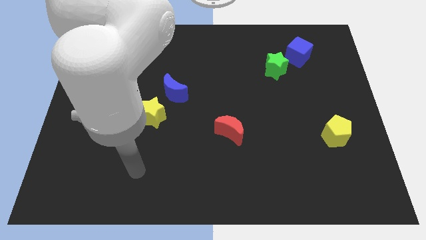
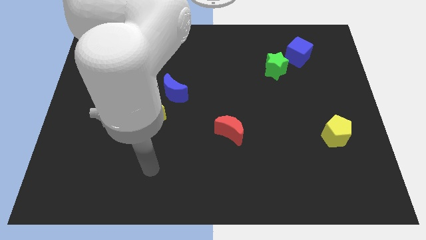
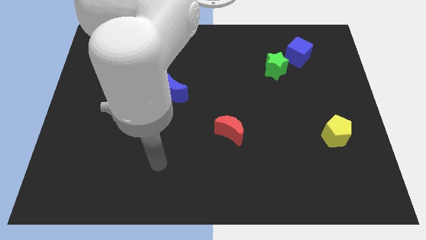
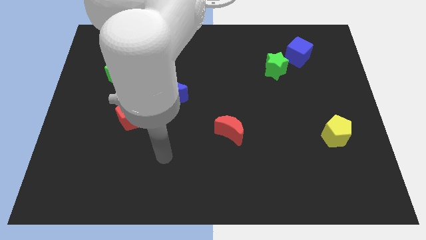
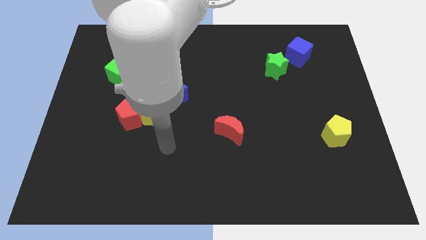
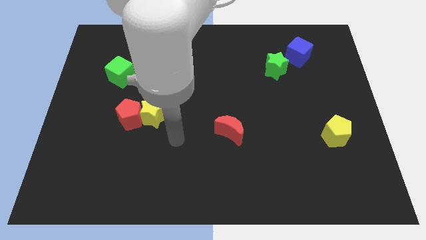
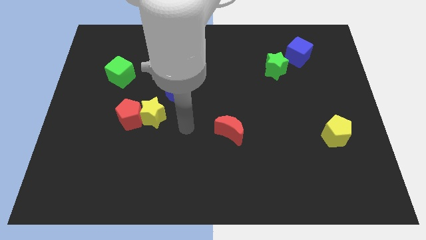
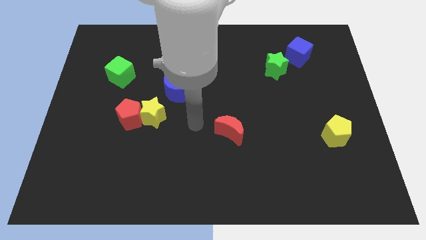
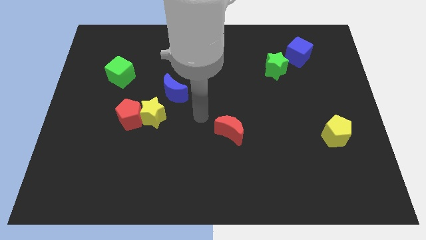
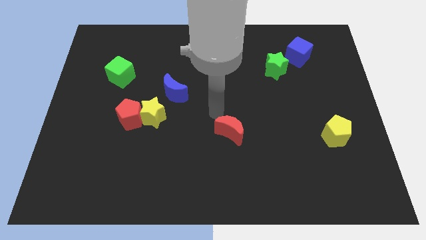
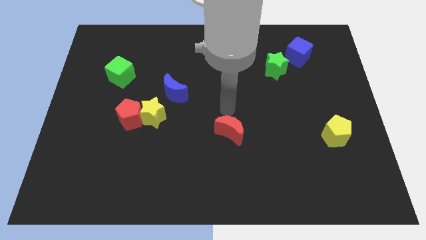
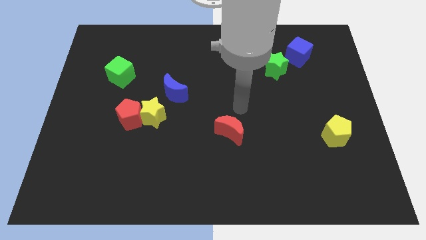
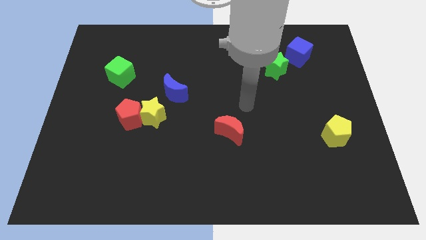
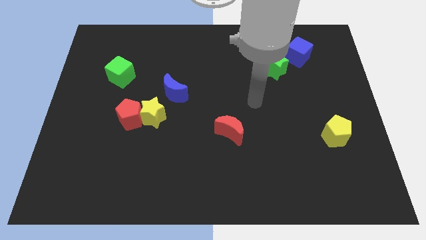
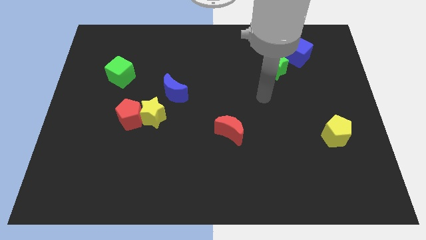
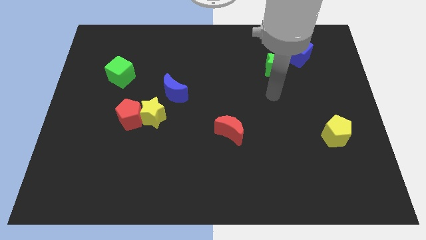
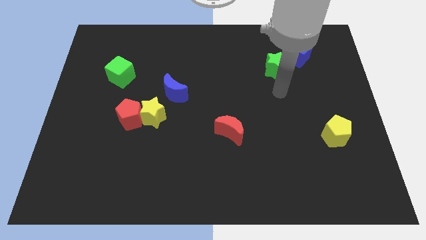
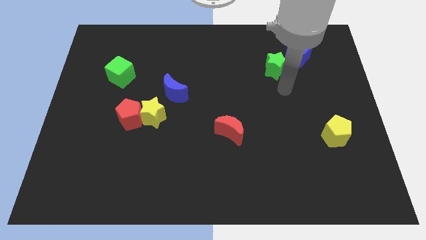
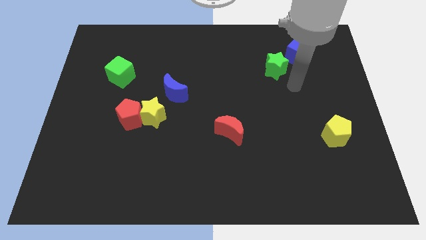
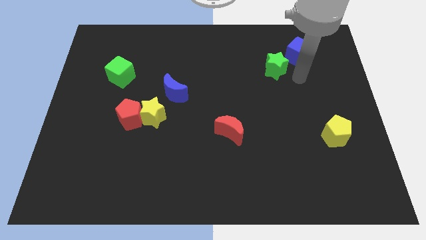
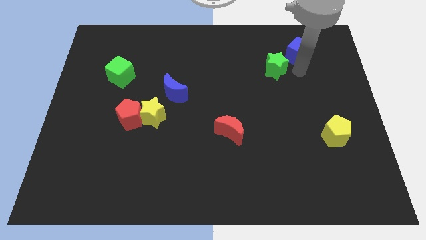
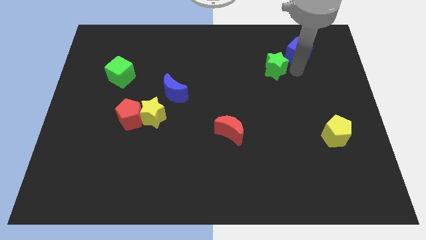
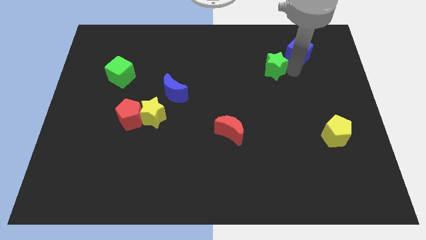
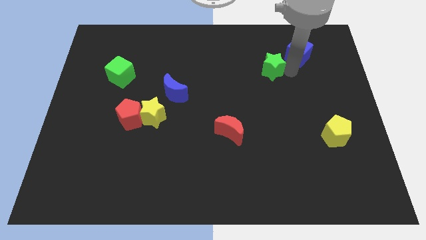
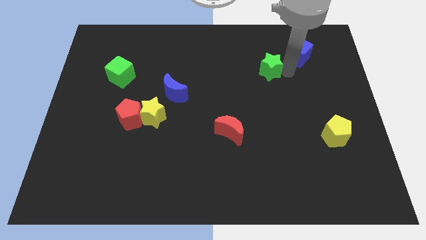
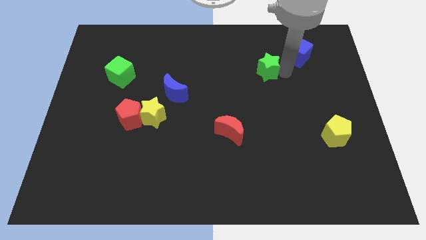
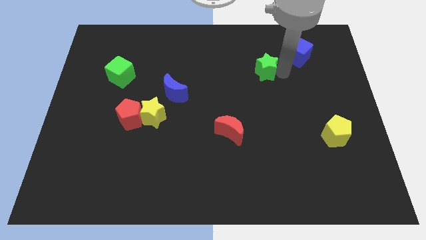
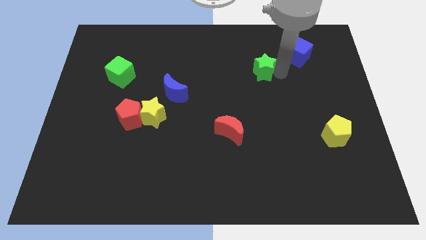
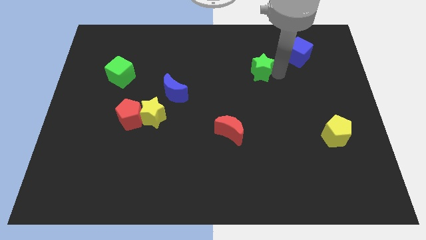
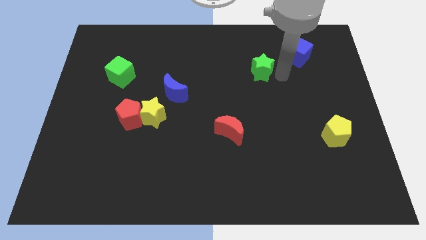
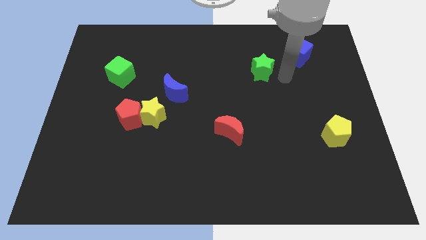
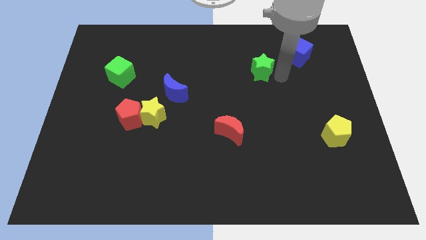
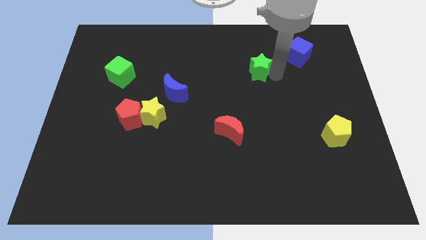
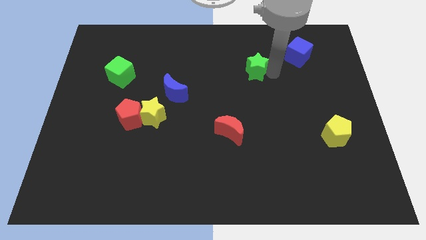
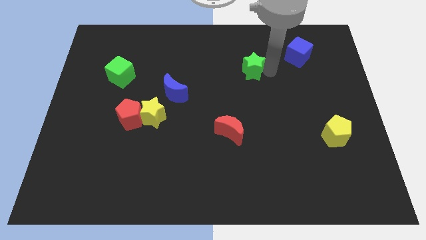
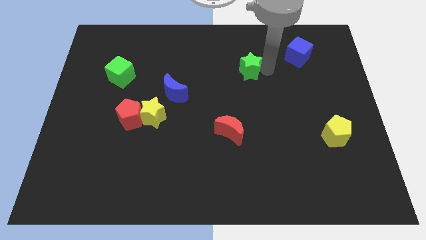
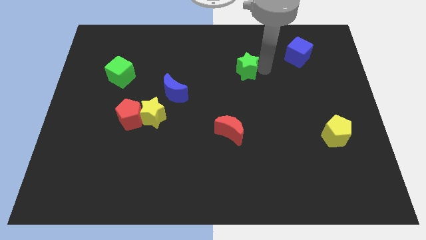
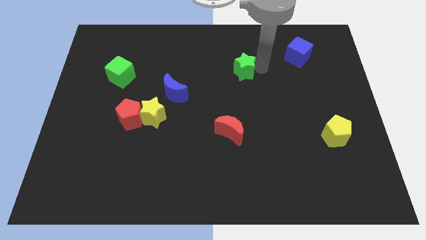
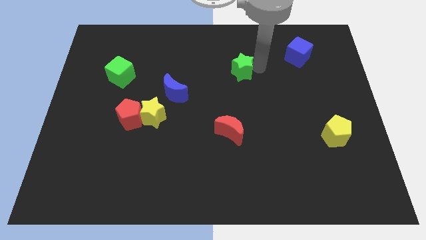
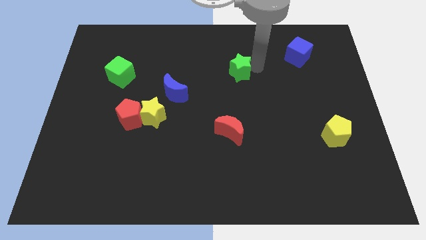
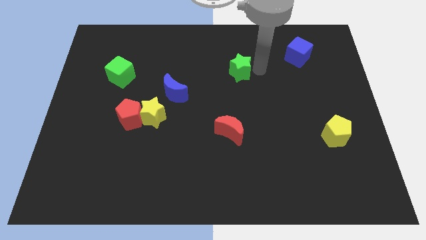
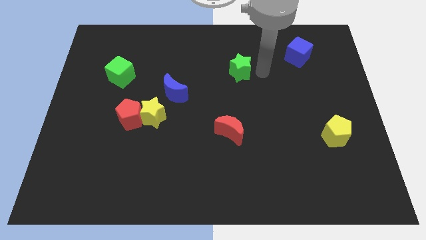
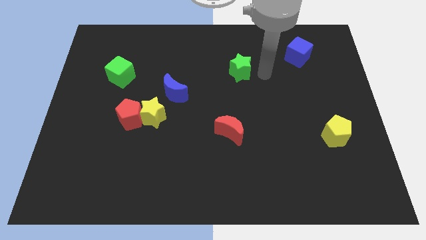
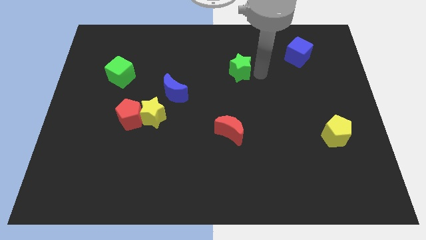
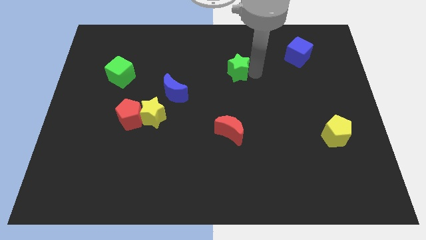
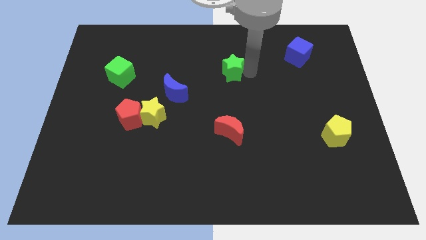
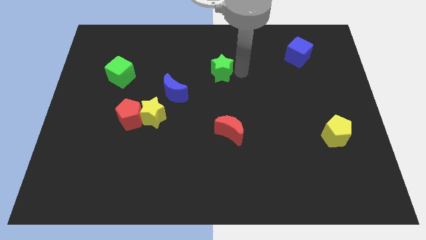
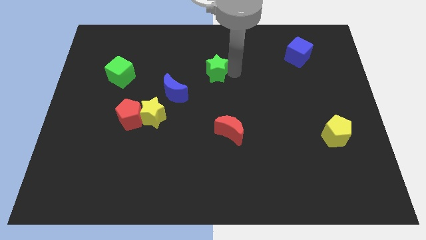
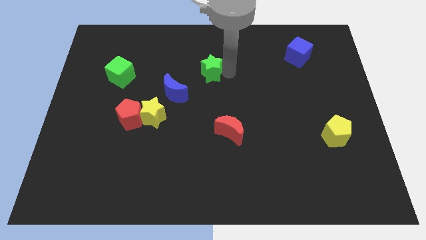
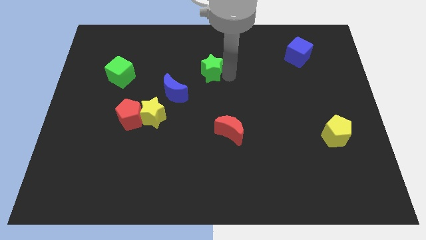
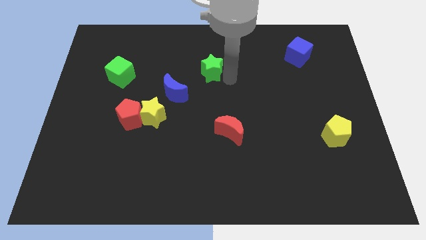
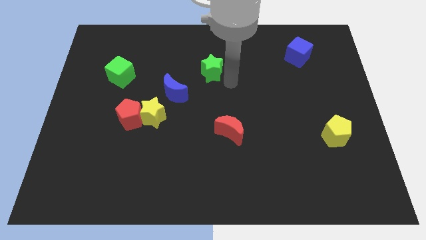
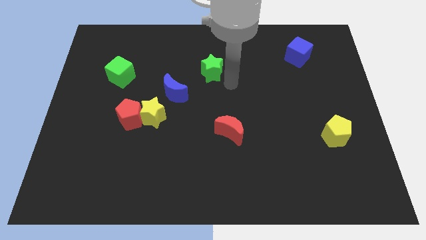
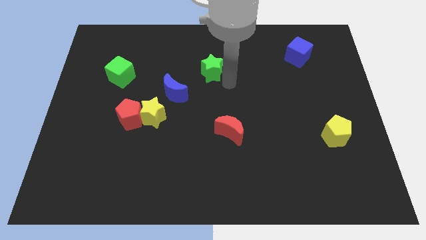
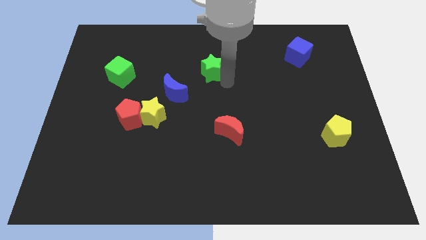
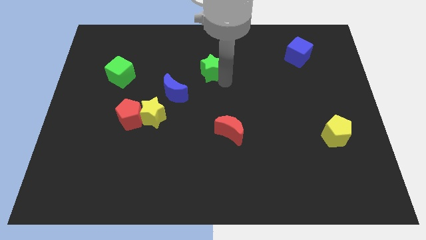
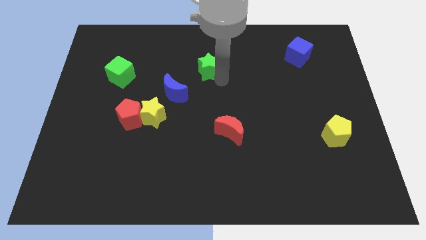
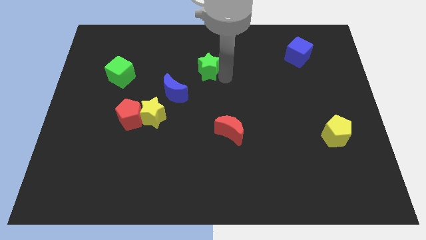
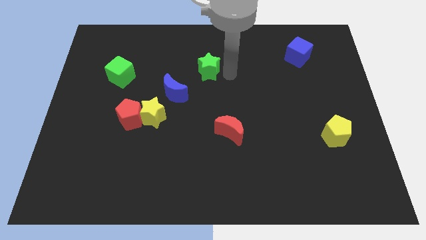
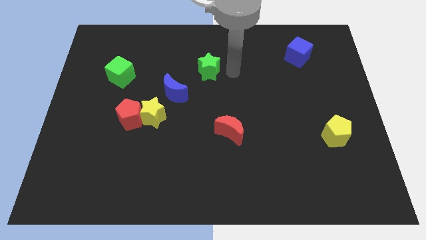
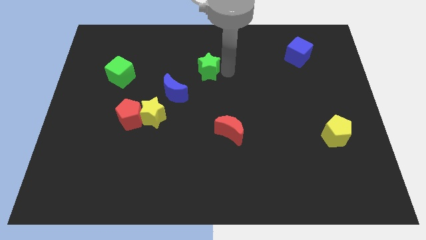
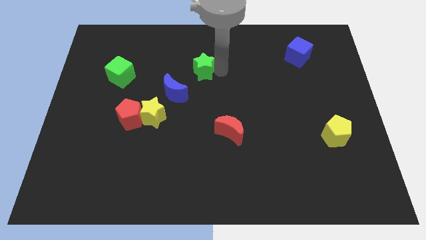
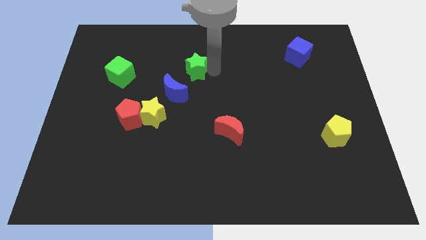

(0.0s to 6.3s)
move the green star to the left

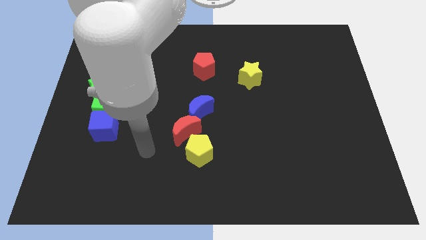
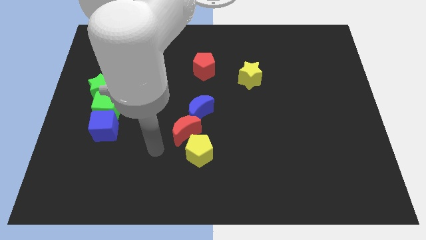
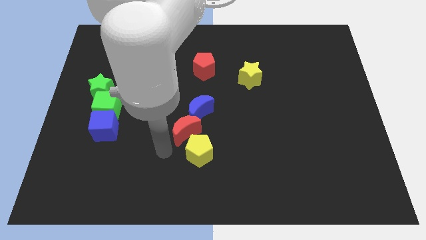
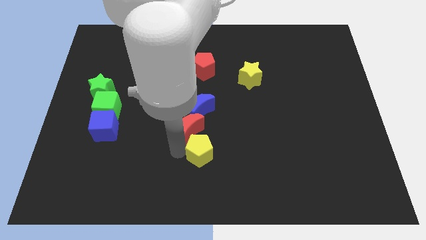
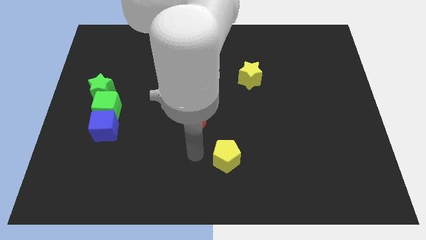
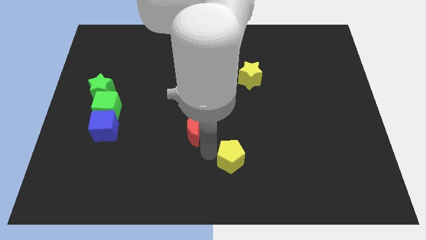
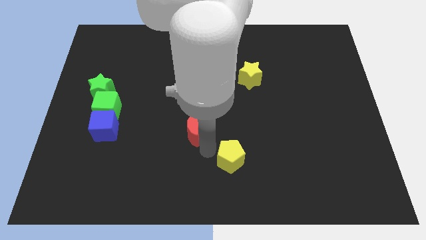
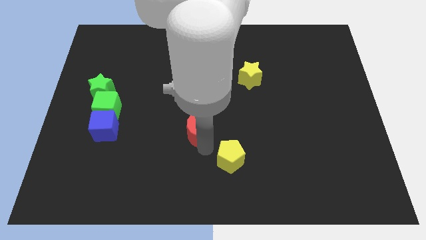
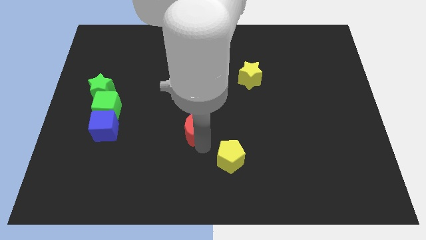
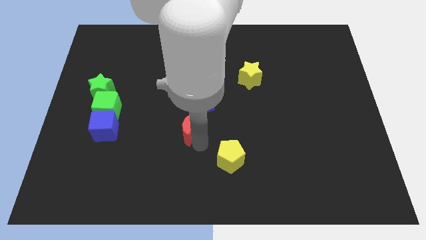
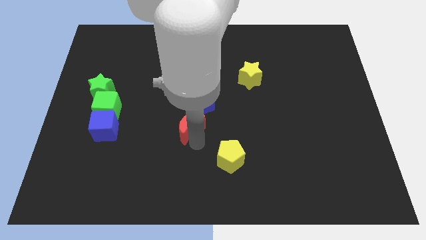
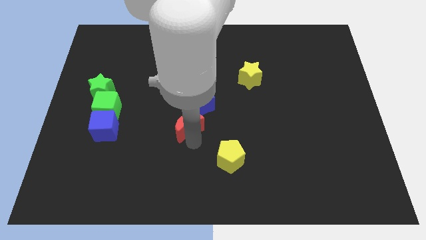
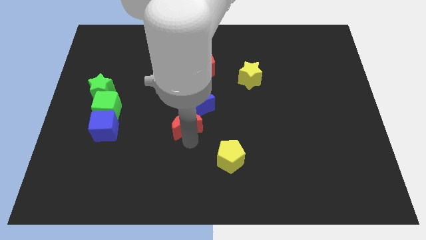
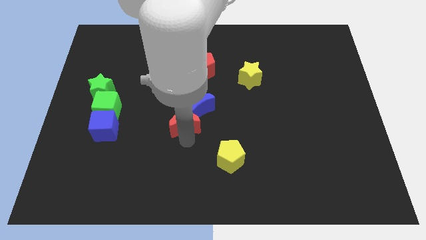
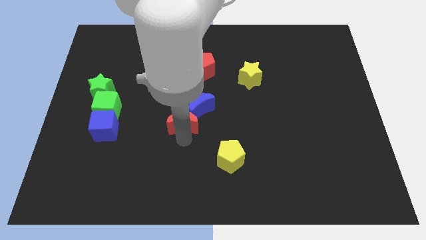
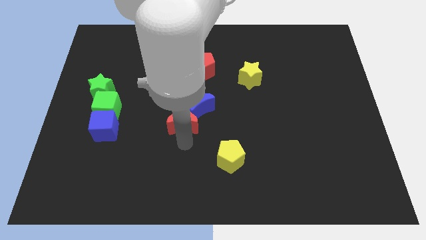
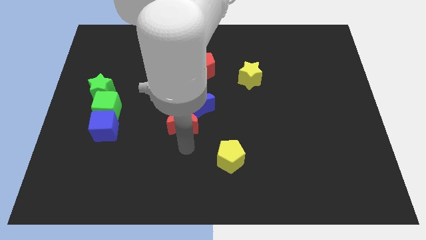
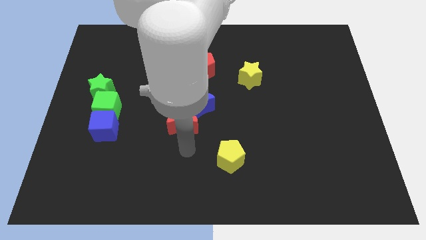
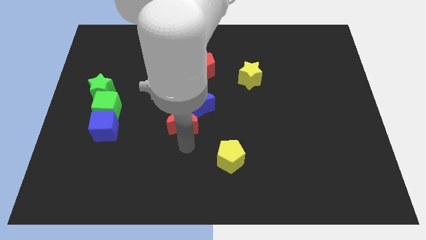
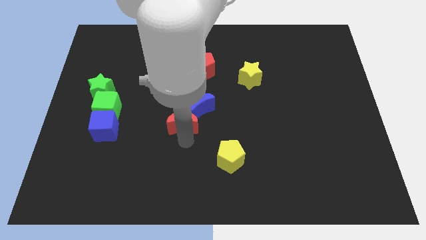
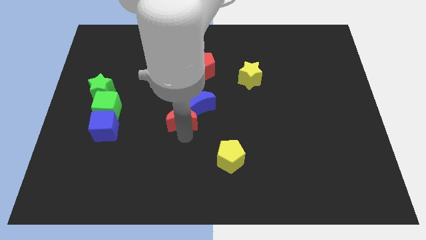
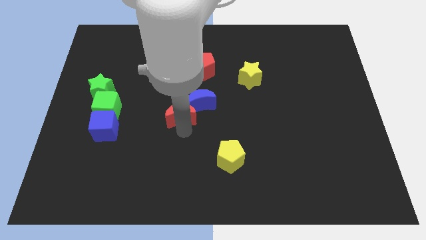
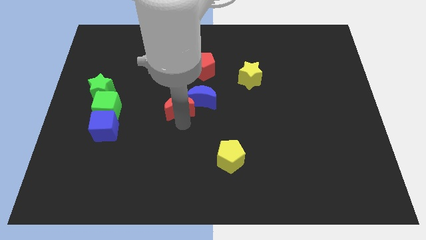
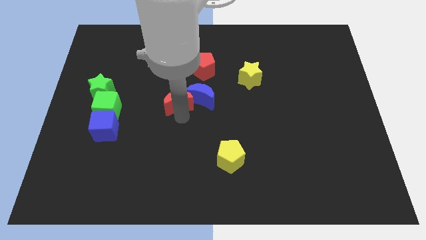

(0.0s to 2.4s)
slightly push the red moon up

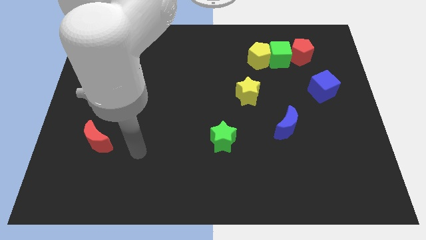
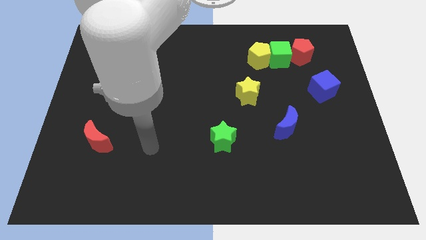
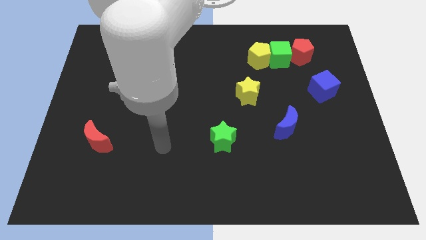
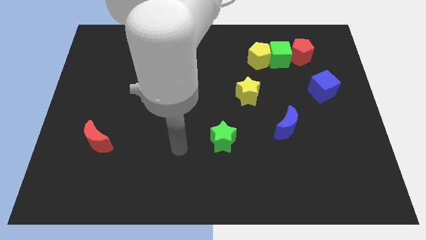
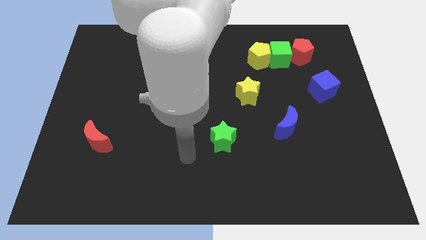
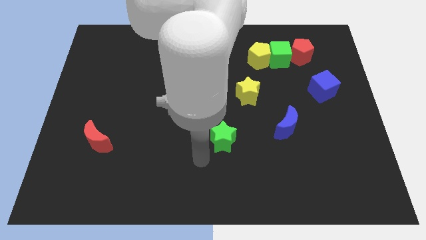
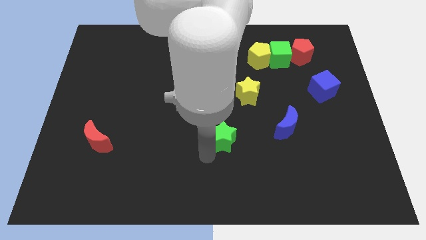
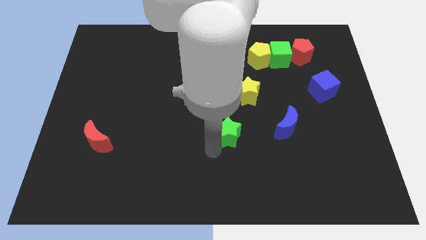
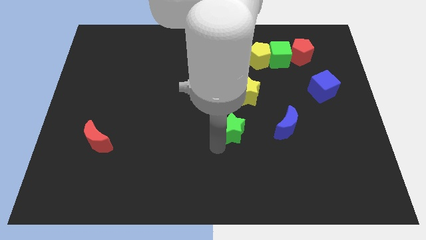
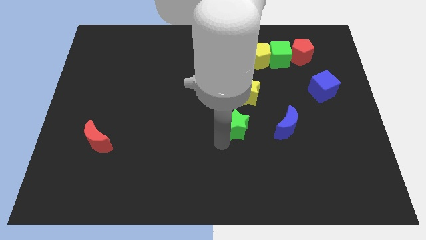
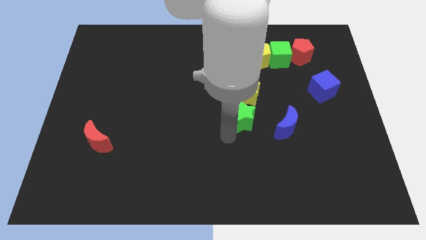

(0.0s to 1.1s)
slightly move the green star diagonally up and right
